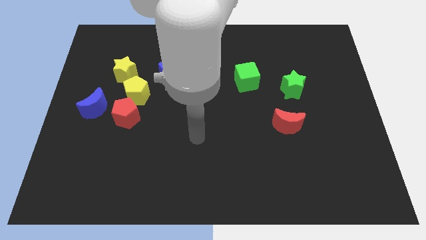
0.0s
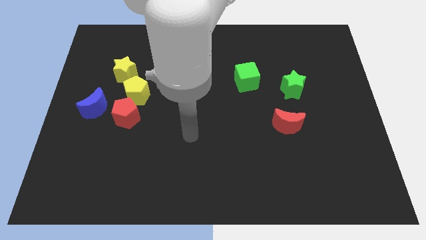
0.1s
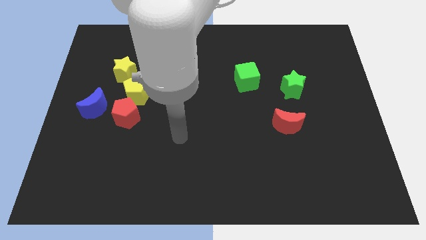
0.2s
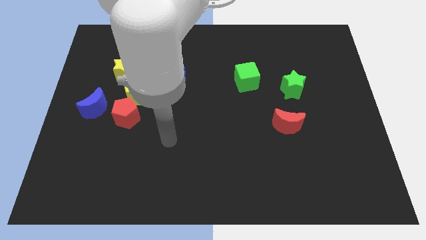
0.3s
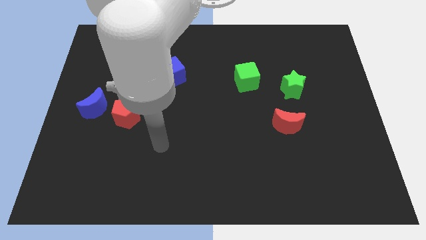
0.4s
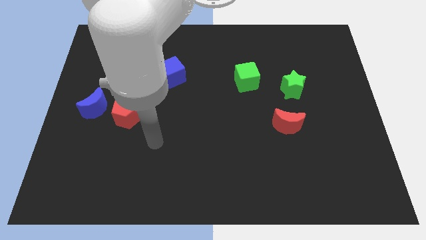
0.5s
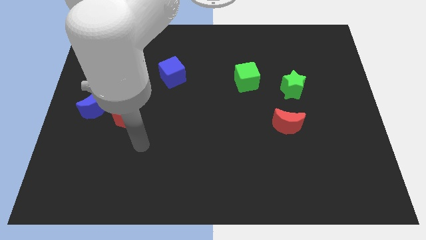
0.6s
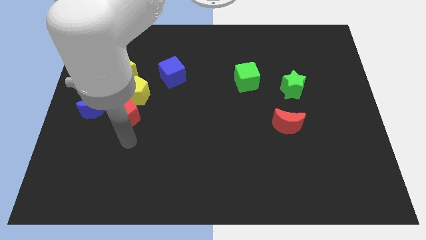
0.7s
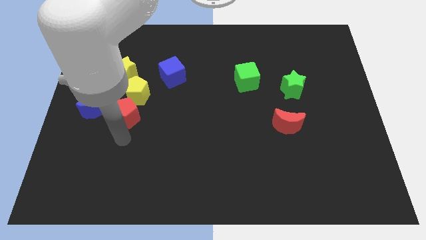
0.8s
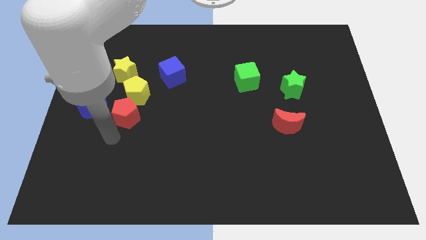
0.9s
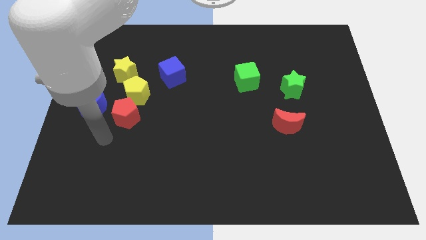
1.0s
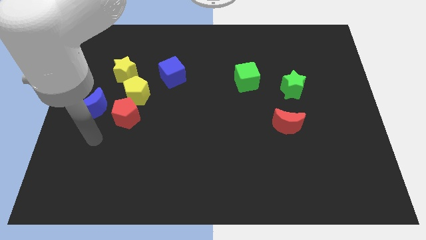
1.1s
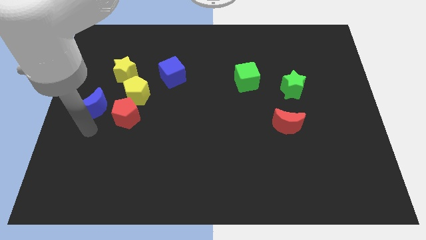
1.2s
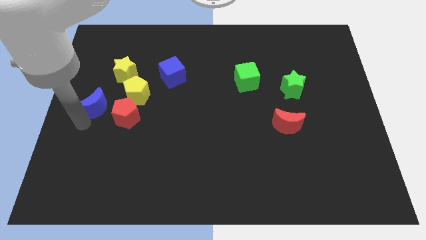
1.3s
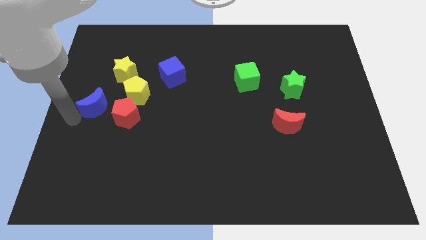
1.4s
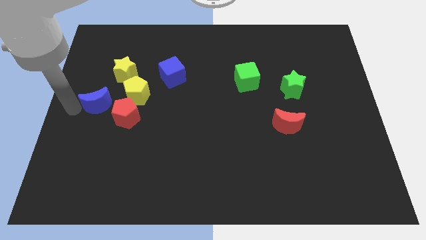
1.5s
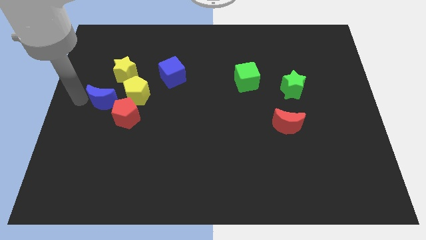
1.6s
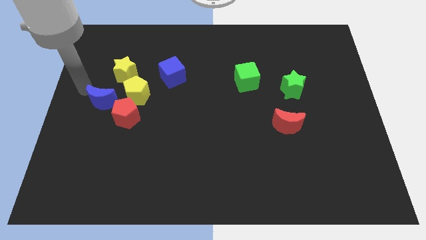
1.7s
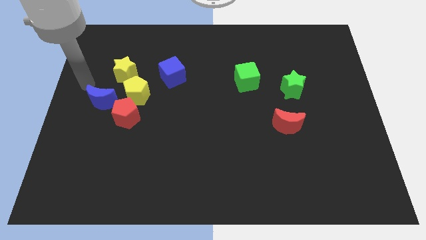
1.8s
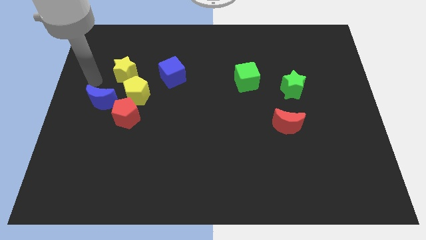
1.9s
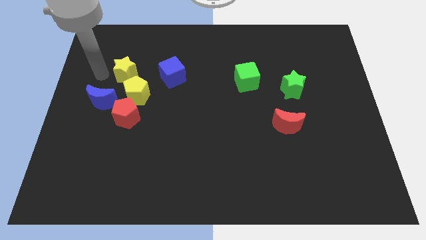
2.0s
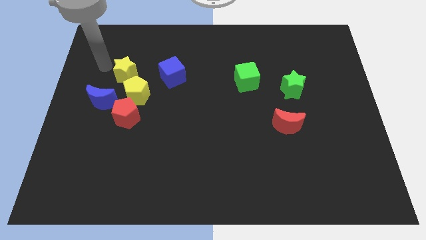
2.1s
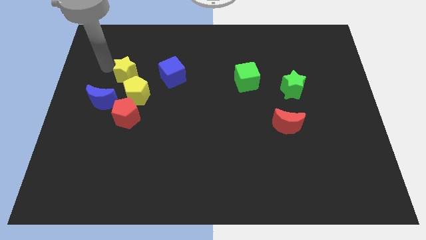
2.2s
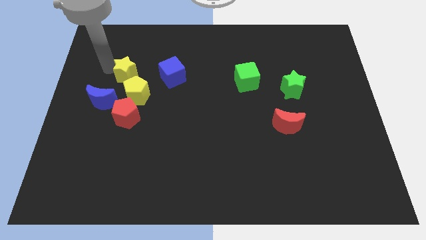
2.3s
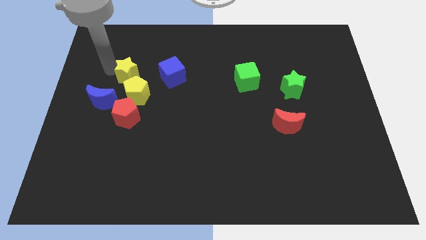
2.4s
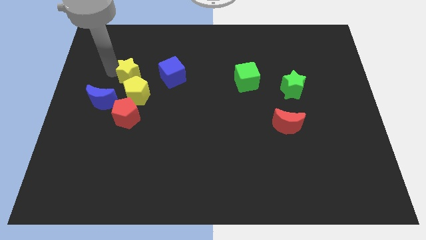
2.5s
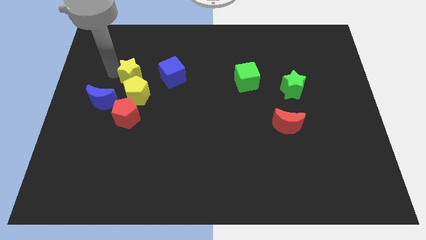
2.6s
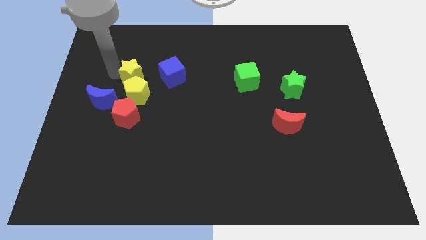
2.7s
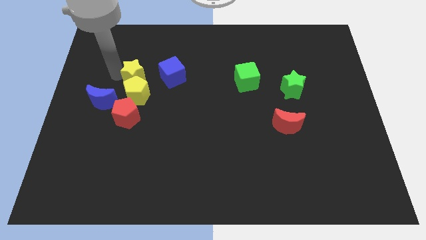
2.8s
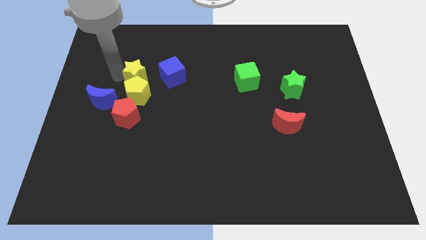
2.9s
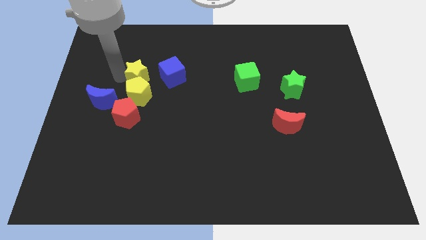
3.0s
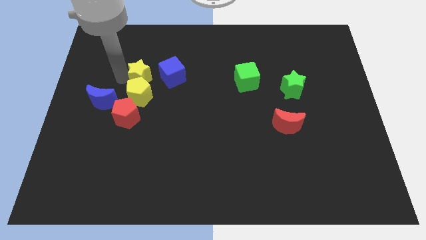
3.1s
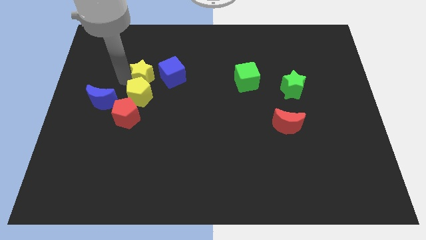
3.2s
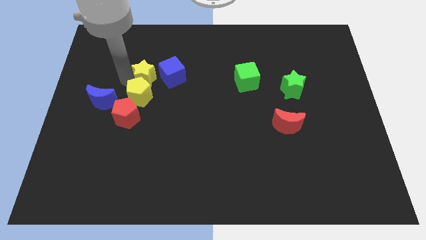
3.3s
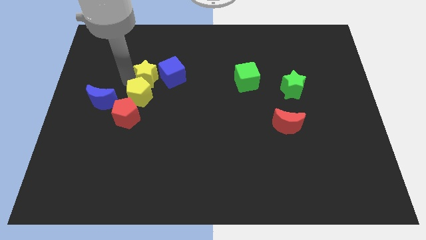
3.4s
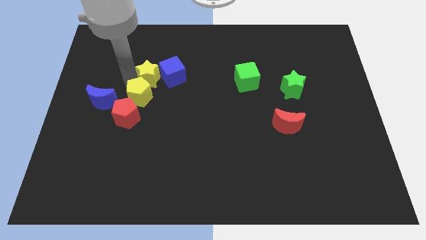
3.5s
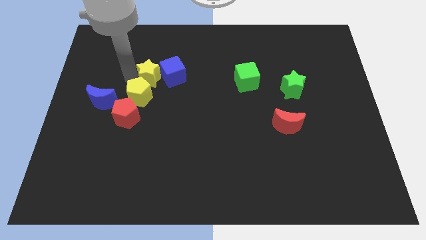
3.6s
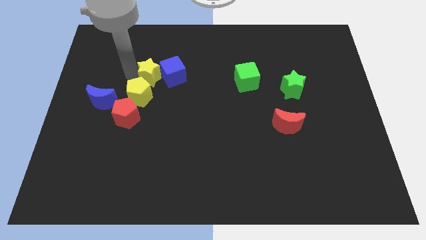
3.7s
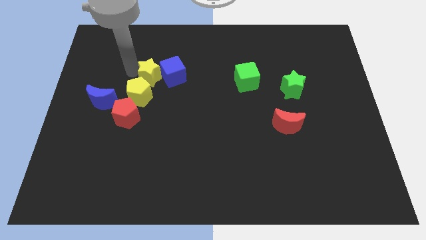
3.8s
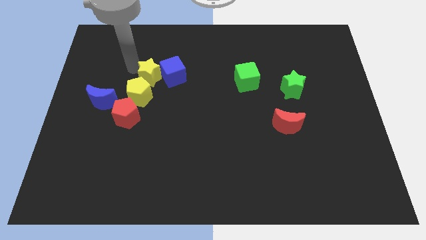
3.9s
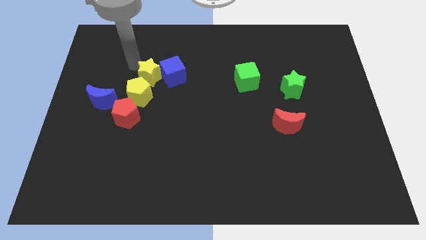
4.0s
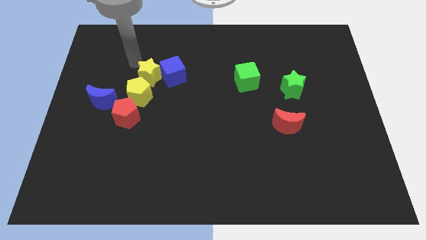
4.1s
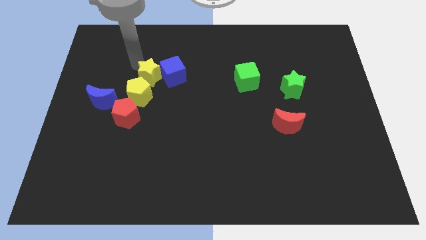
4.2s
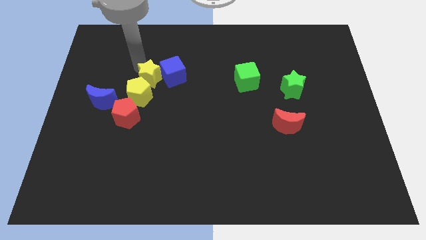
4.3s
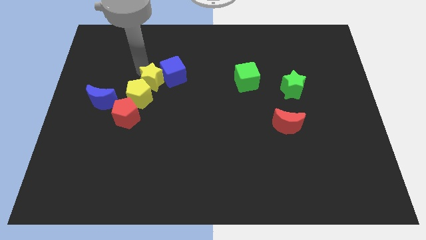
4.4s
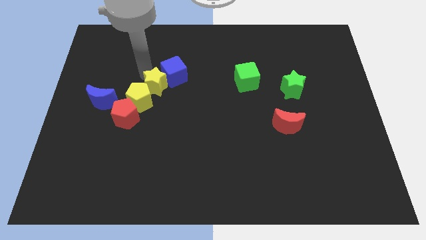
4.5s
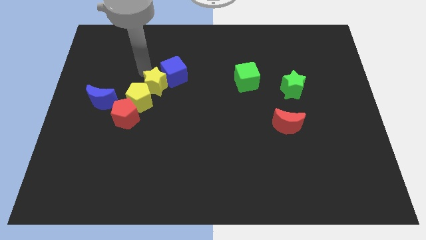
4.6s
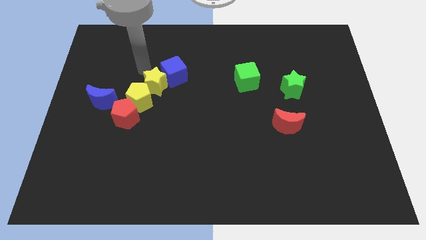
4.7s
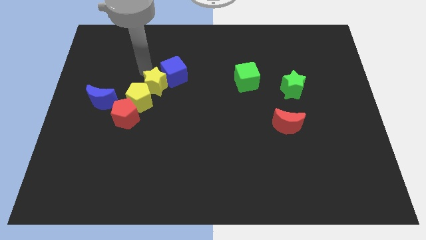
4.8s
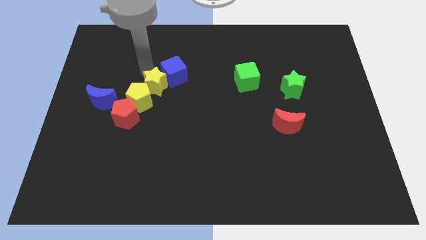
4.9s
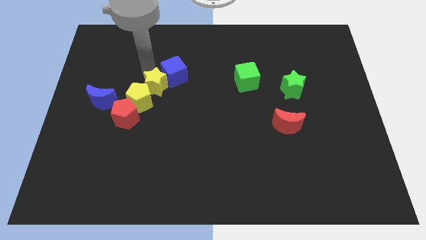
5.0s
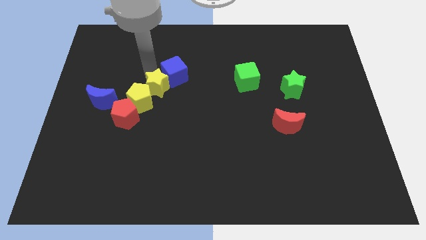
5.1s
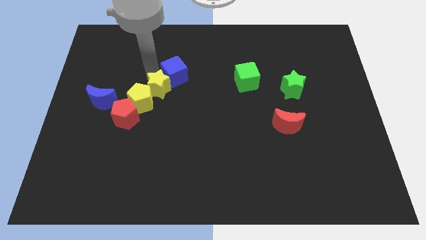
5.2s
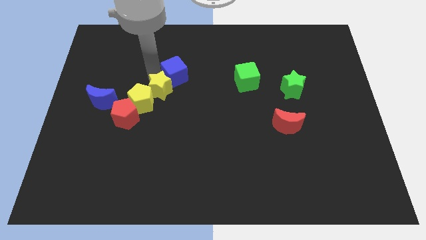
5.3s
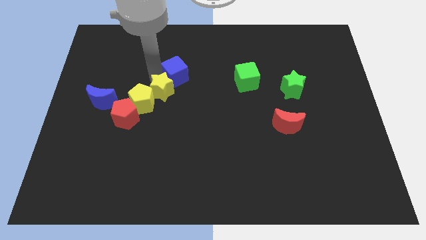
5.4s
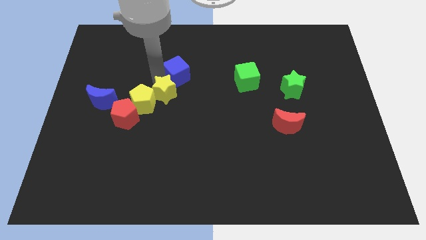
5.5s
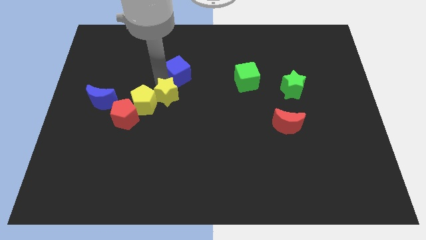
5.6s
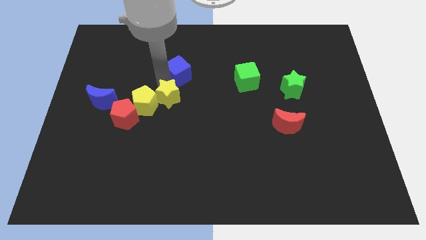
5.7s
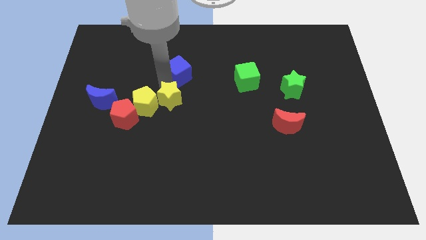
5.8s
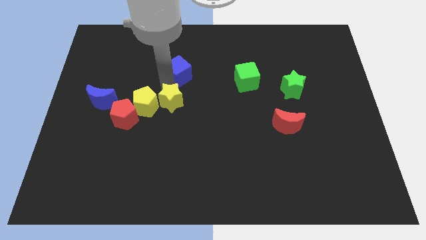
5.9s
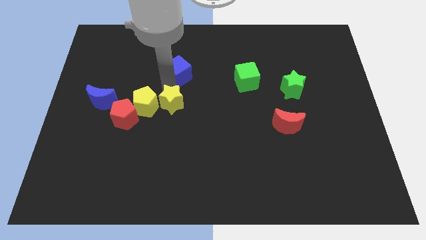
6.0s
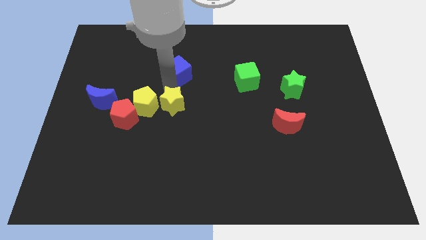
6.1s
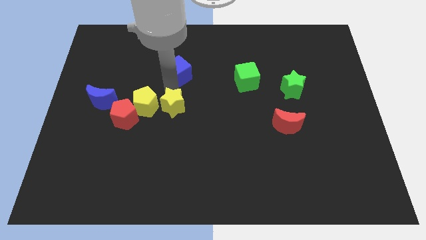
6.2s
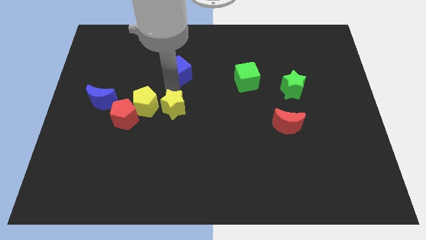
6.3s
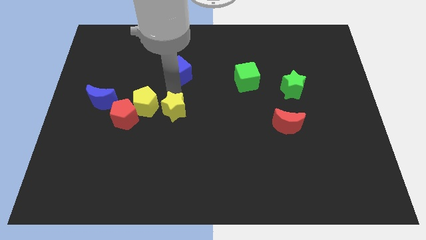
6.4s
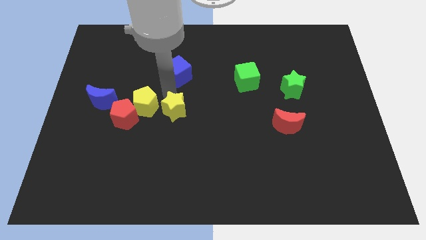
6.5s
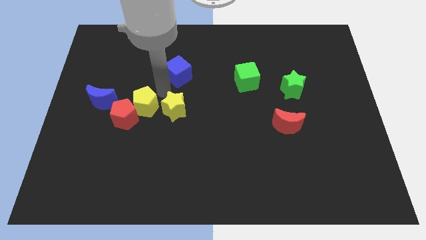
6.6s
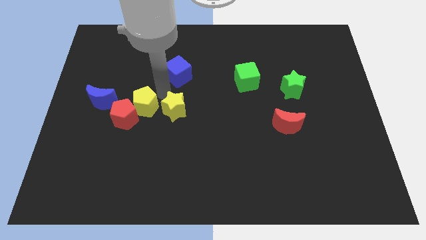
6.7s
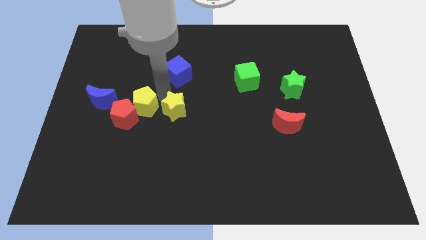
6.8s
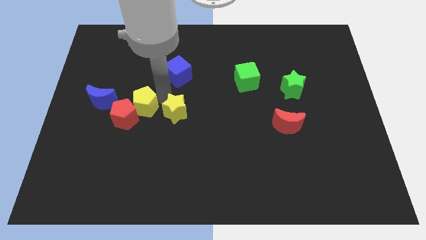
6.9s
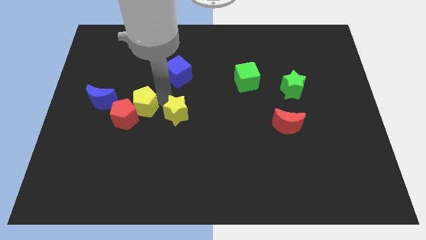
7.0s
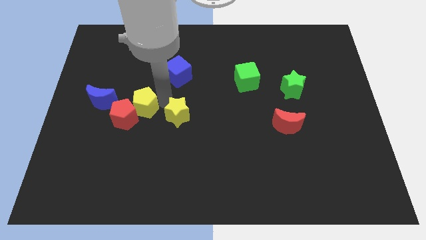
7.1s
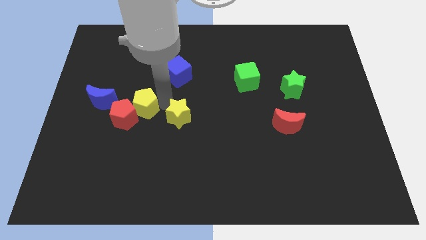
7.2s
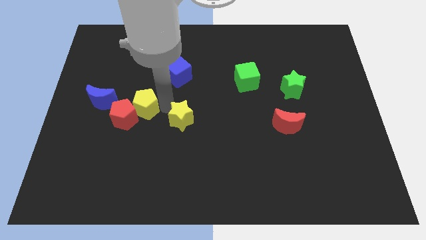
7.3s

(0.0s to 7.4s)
move the yellow star downwards and then to the right

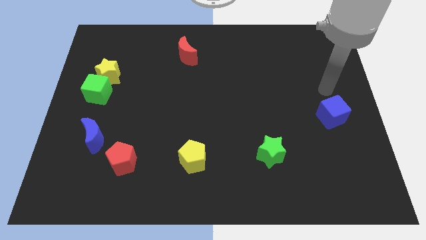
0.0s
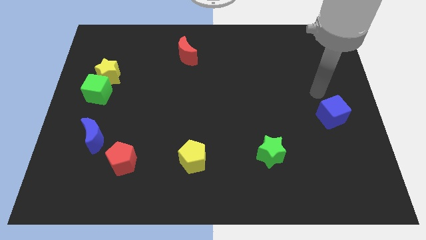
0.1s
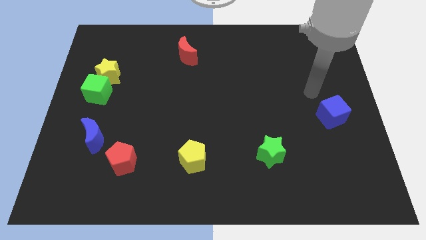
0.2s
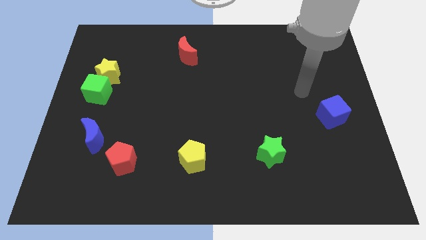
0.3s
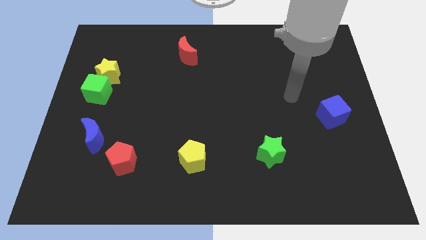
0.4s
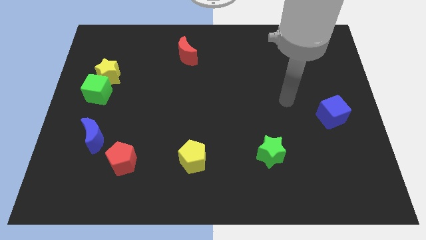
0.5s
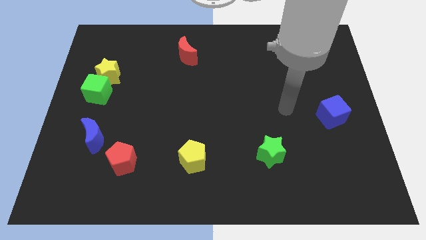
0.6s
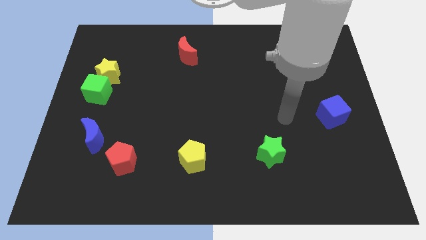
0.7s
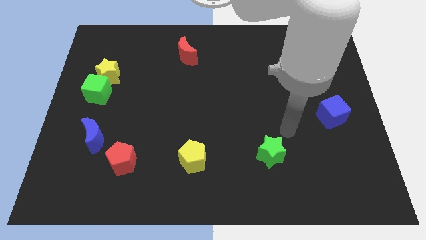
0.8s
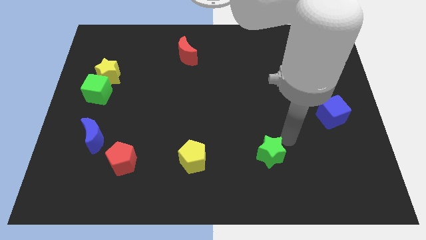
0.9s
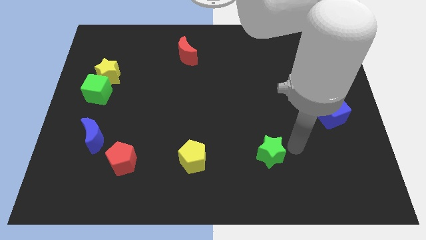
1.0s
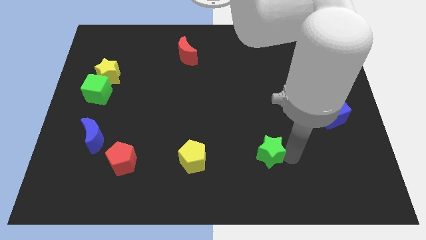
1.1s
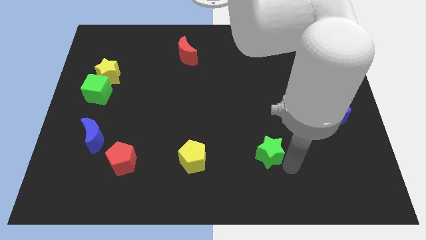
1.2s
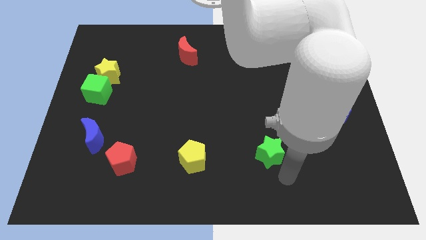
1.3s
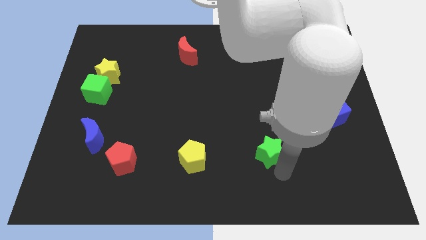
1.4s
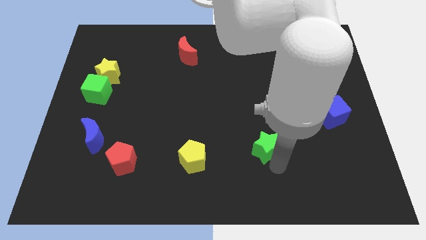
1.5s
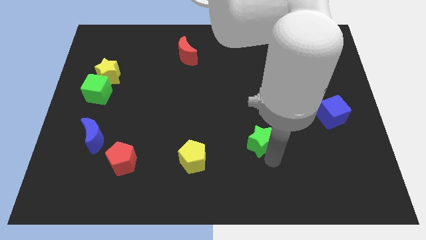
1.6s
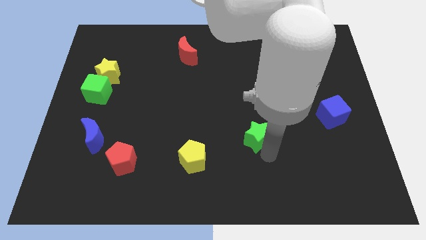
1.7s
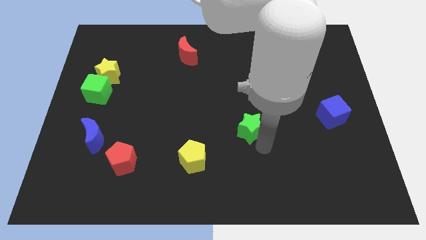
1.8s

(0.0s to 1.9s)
slightly slide the green star up and left diagonally
